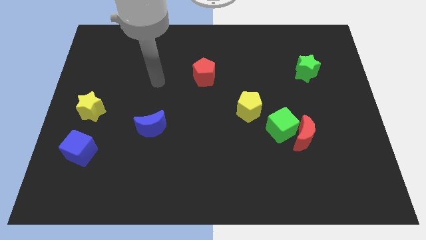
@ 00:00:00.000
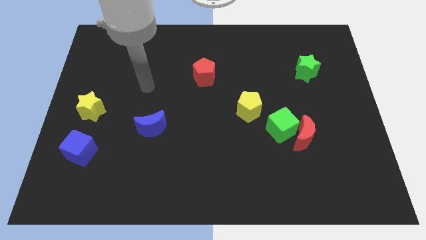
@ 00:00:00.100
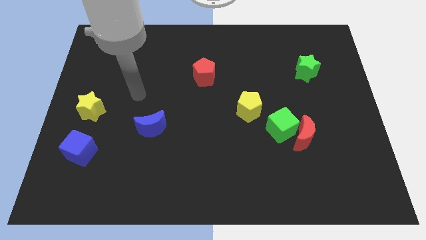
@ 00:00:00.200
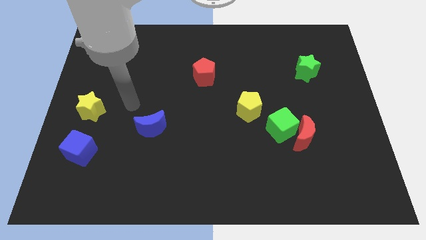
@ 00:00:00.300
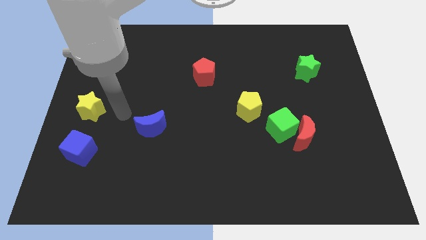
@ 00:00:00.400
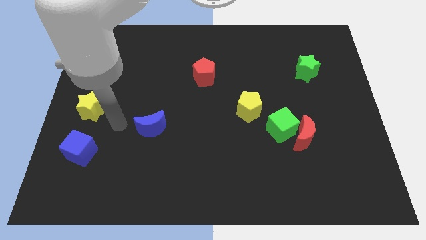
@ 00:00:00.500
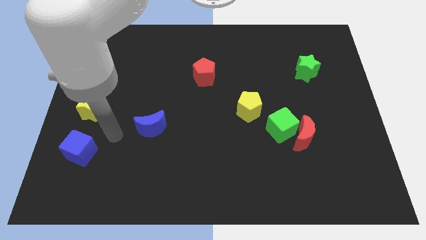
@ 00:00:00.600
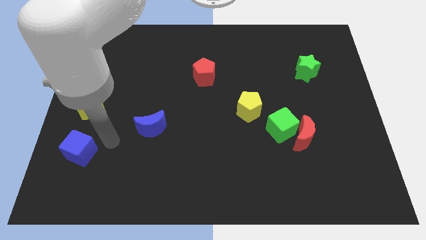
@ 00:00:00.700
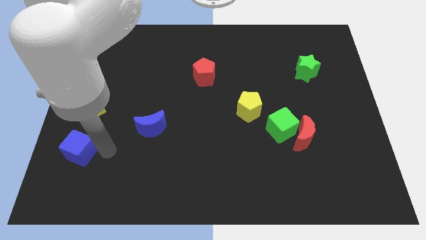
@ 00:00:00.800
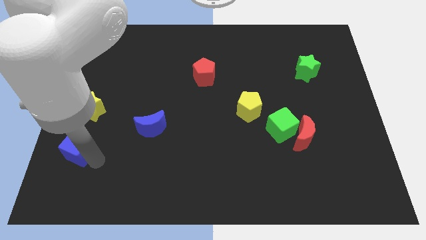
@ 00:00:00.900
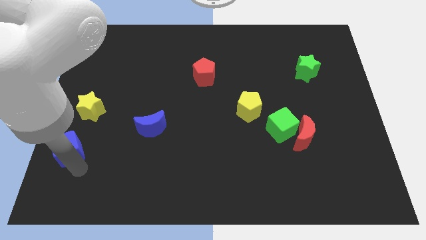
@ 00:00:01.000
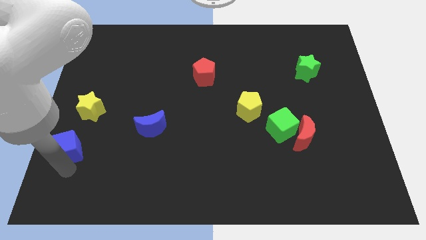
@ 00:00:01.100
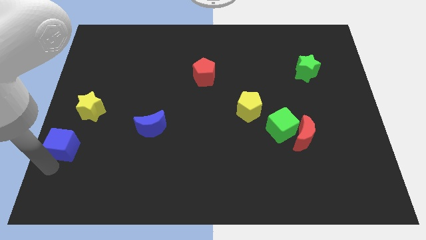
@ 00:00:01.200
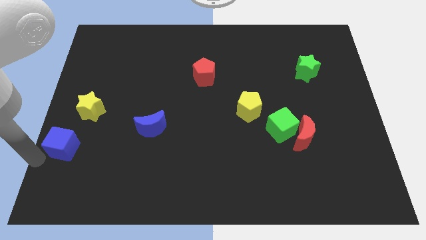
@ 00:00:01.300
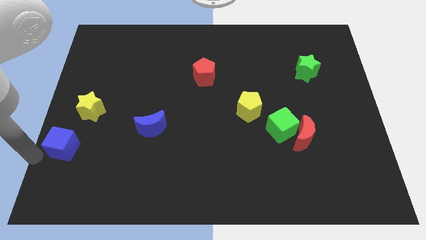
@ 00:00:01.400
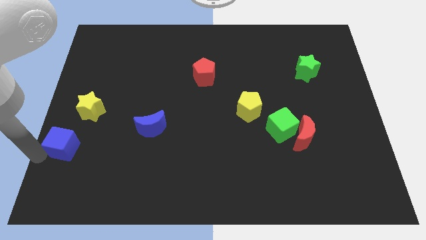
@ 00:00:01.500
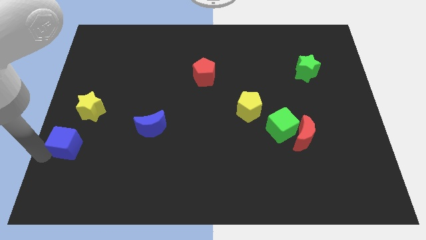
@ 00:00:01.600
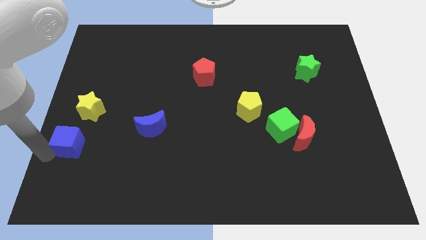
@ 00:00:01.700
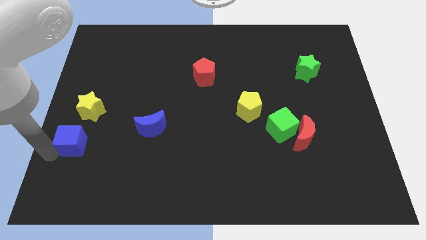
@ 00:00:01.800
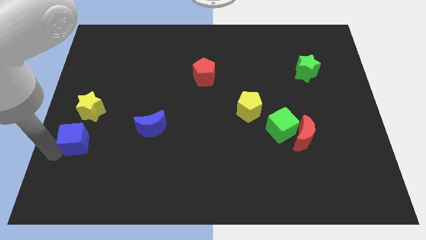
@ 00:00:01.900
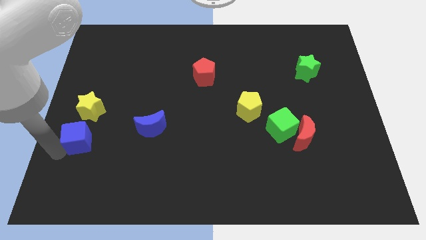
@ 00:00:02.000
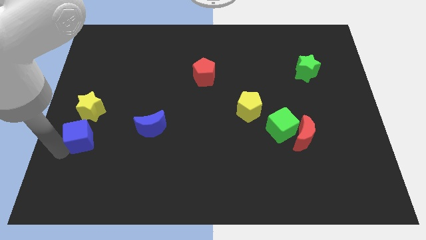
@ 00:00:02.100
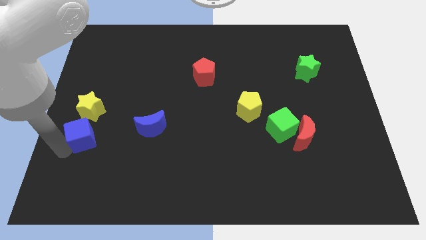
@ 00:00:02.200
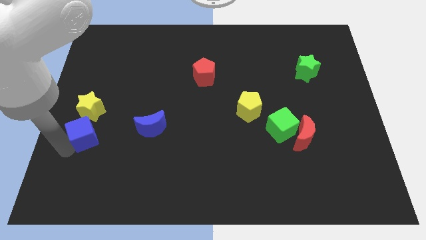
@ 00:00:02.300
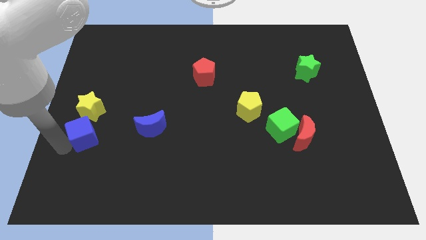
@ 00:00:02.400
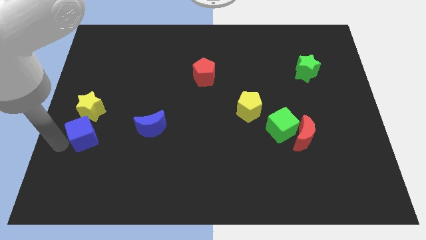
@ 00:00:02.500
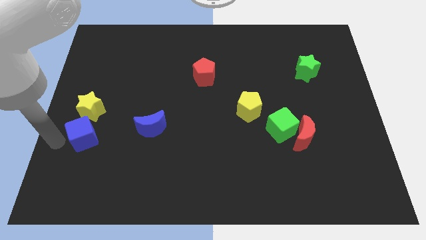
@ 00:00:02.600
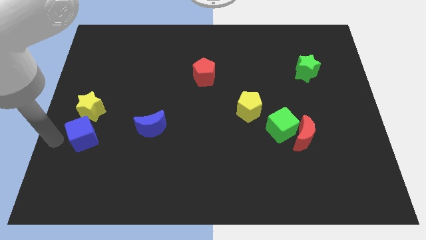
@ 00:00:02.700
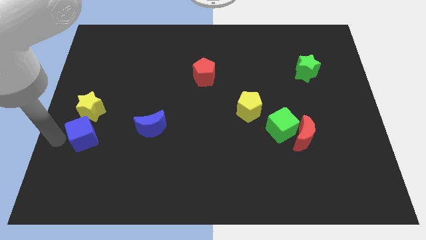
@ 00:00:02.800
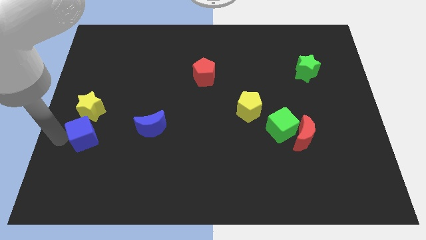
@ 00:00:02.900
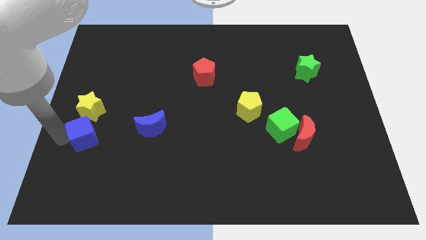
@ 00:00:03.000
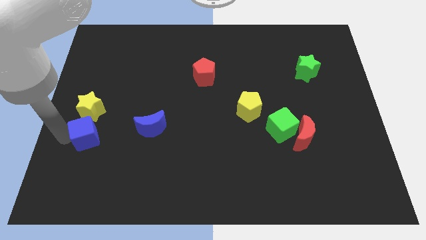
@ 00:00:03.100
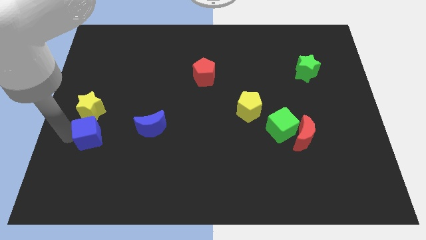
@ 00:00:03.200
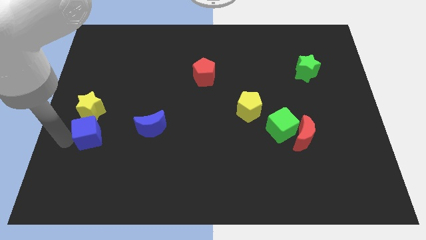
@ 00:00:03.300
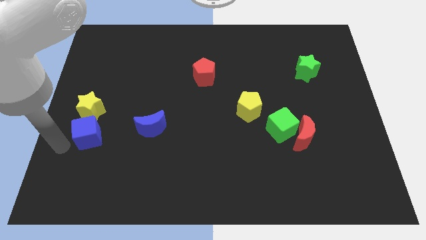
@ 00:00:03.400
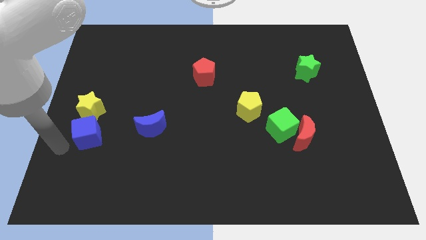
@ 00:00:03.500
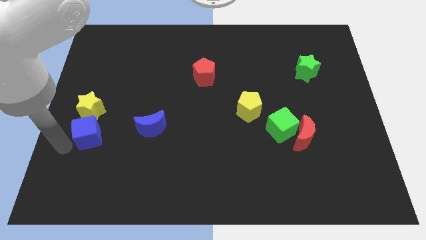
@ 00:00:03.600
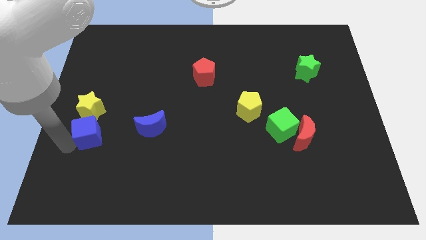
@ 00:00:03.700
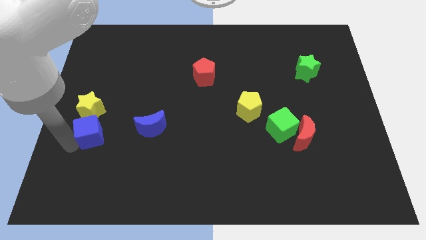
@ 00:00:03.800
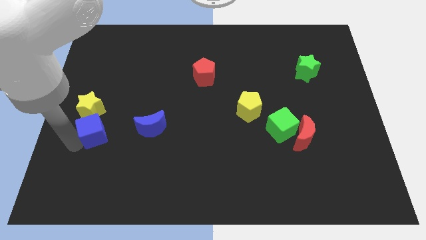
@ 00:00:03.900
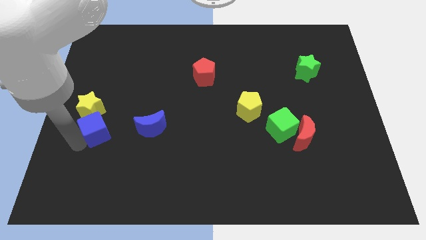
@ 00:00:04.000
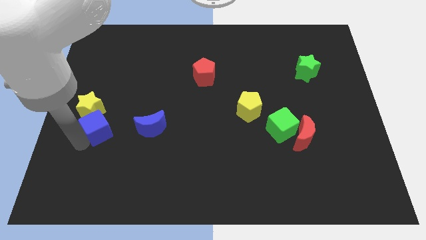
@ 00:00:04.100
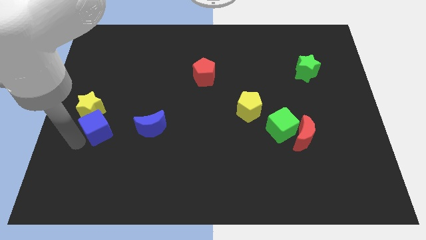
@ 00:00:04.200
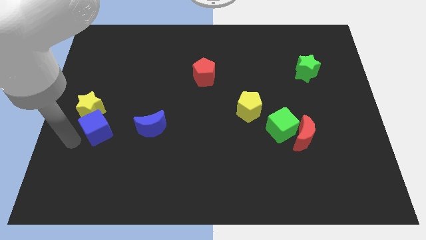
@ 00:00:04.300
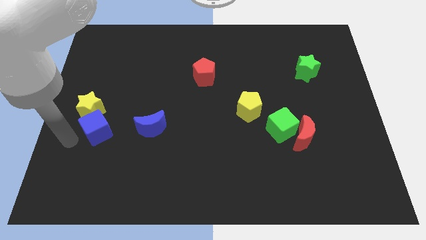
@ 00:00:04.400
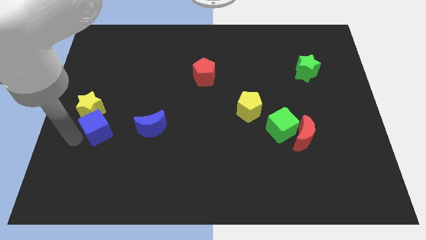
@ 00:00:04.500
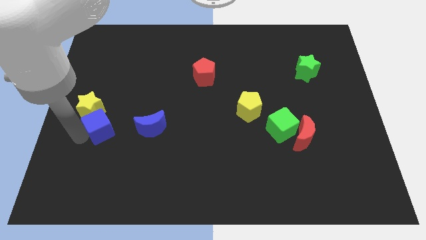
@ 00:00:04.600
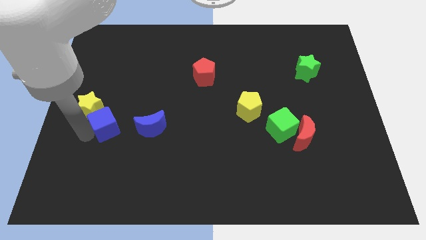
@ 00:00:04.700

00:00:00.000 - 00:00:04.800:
slide the blue cube diagonally up and to the right somewhat

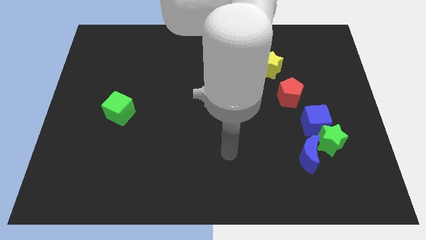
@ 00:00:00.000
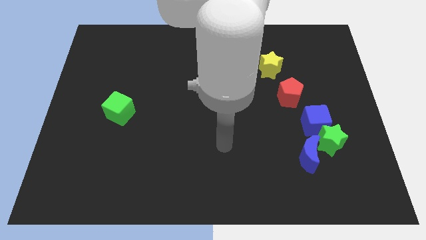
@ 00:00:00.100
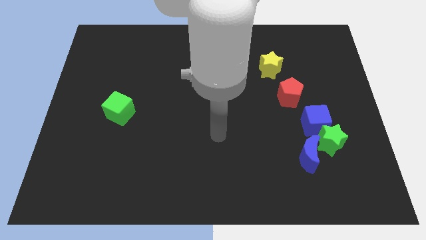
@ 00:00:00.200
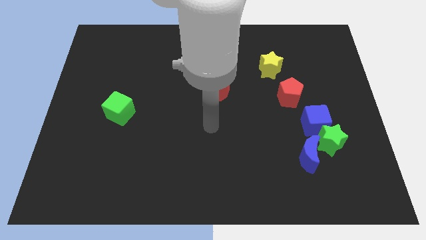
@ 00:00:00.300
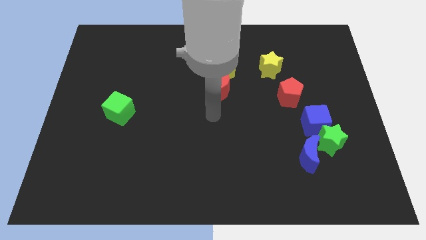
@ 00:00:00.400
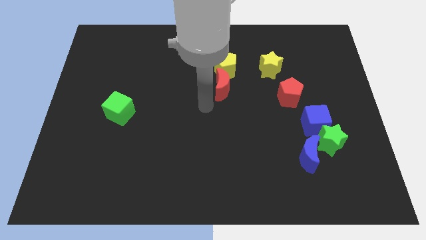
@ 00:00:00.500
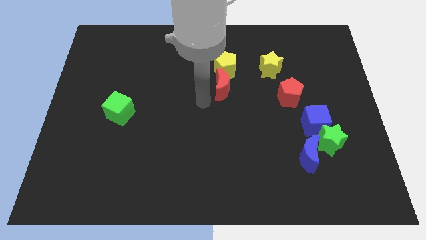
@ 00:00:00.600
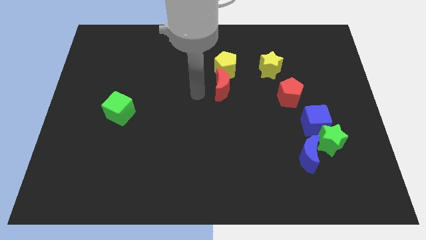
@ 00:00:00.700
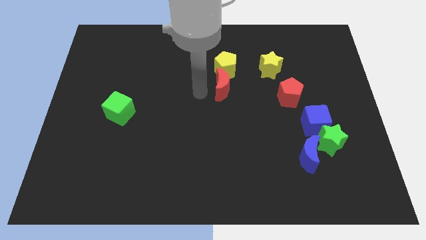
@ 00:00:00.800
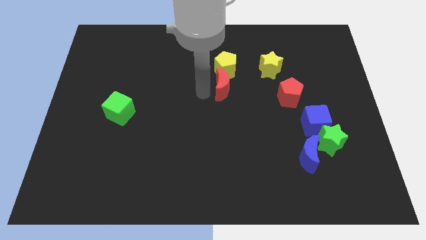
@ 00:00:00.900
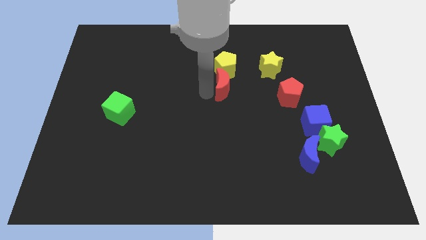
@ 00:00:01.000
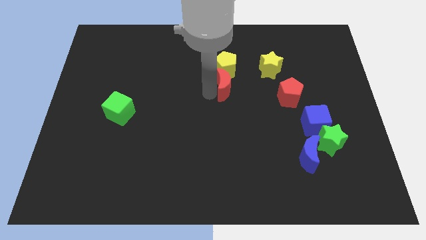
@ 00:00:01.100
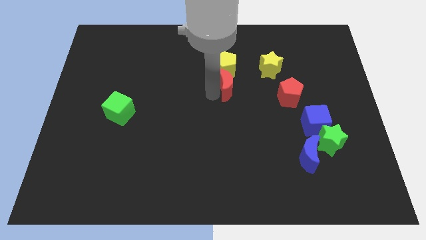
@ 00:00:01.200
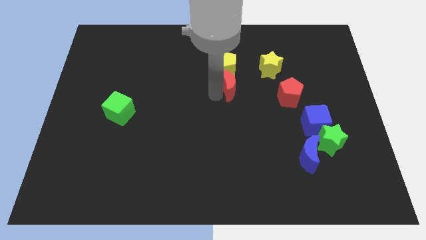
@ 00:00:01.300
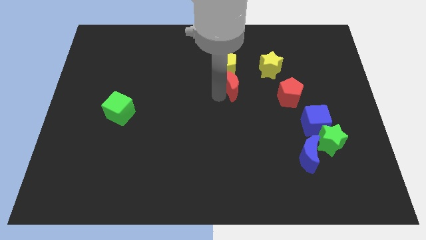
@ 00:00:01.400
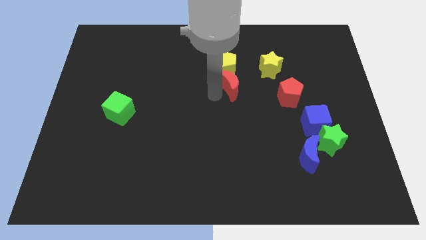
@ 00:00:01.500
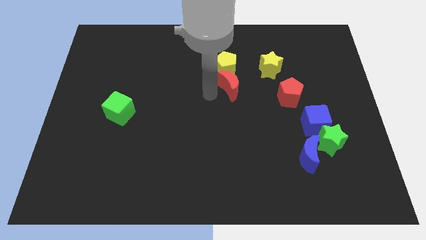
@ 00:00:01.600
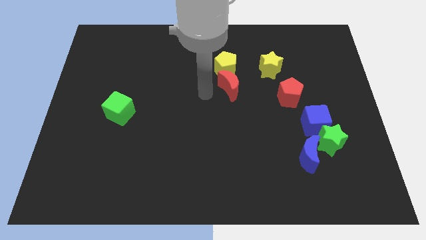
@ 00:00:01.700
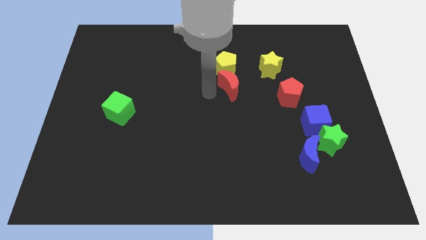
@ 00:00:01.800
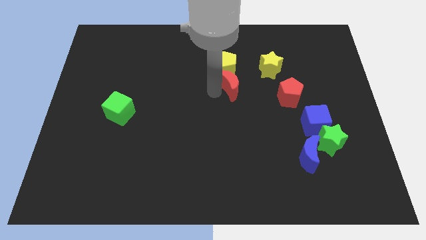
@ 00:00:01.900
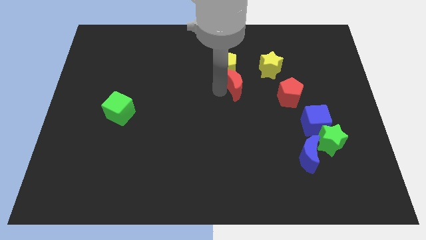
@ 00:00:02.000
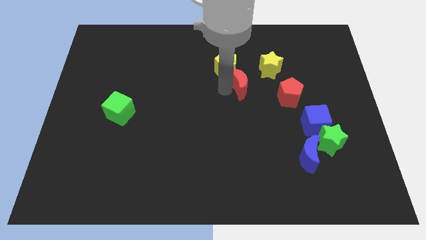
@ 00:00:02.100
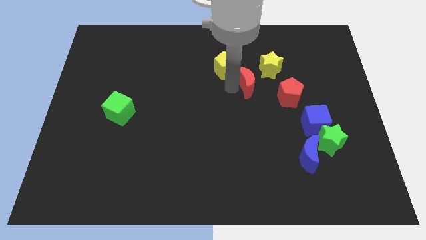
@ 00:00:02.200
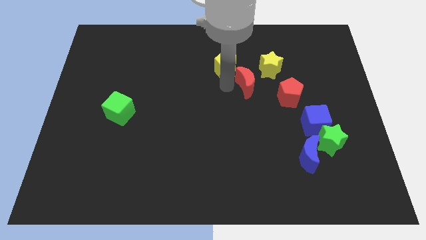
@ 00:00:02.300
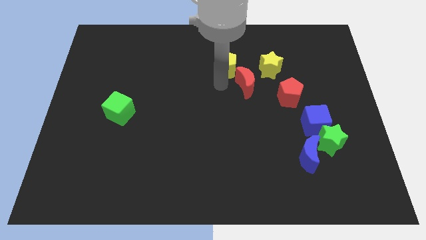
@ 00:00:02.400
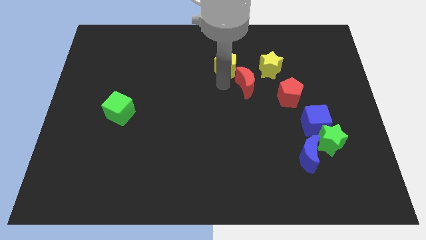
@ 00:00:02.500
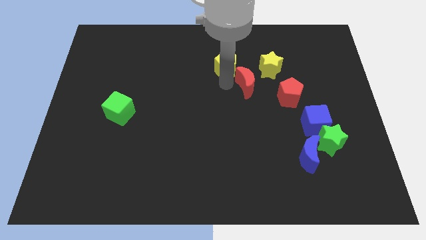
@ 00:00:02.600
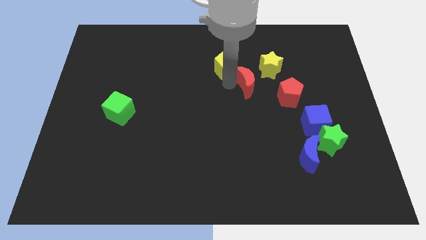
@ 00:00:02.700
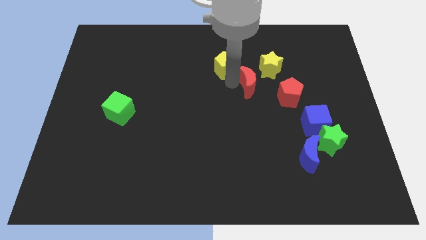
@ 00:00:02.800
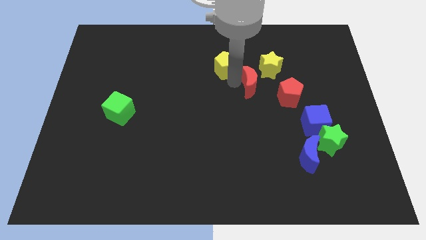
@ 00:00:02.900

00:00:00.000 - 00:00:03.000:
slightly push the red moon to the right
